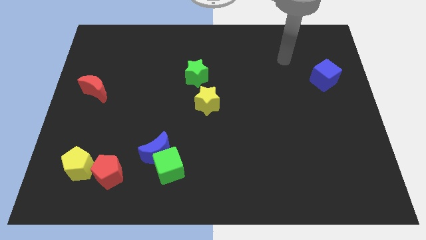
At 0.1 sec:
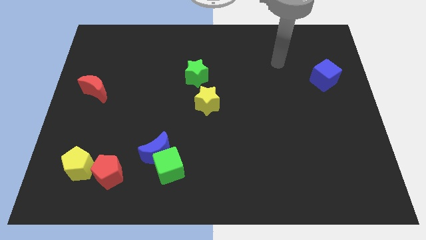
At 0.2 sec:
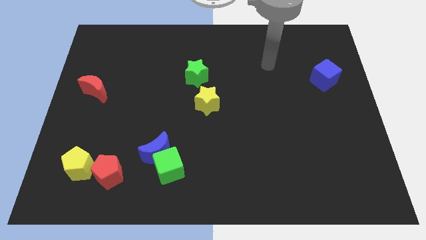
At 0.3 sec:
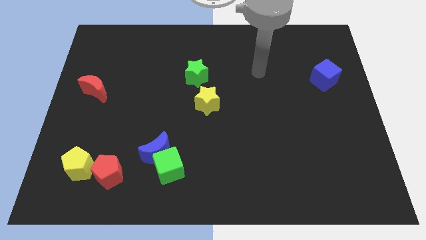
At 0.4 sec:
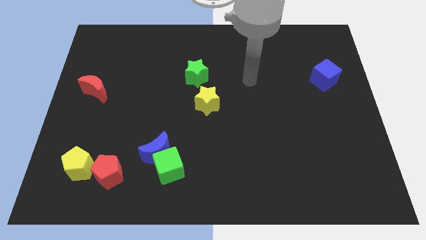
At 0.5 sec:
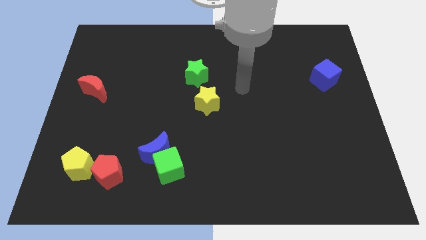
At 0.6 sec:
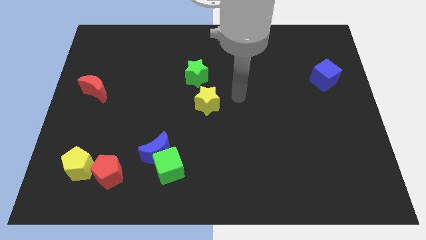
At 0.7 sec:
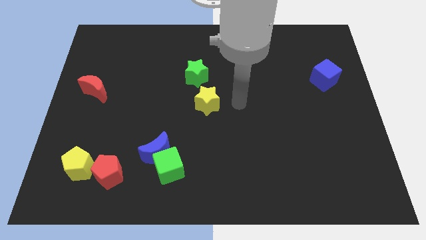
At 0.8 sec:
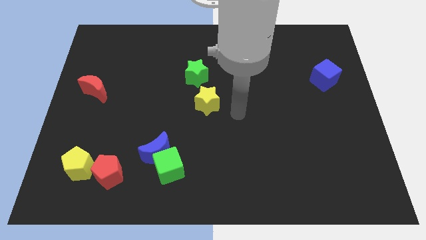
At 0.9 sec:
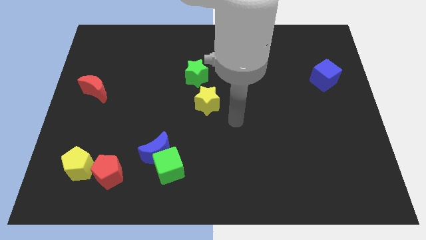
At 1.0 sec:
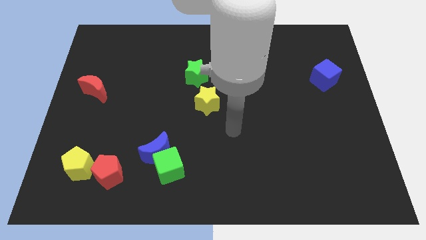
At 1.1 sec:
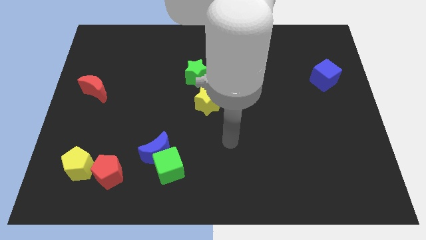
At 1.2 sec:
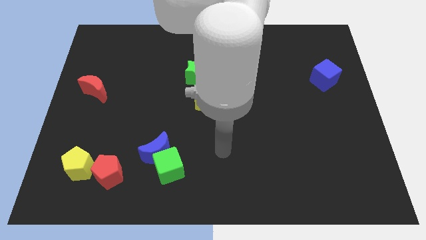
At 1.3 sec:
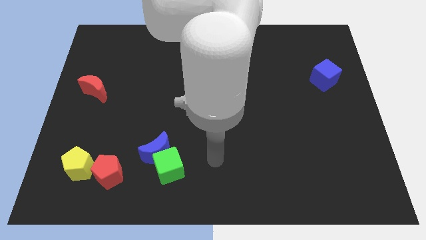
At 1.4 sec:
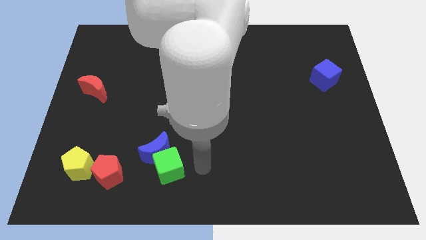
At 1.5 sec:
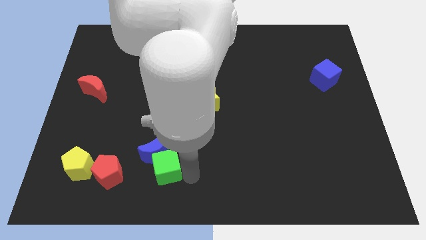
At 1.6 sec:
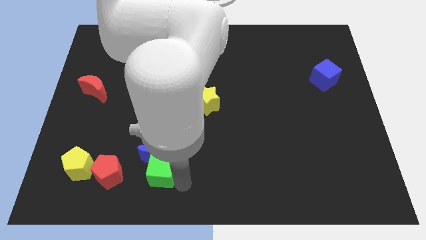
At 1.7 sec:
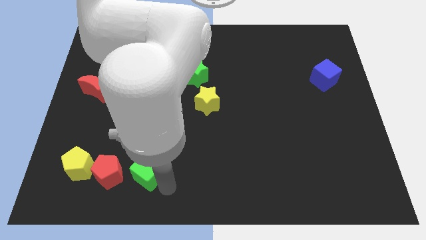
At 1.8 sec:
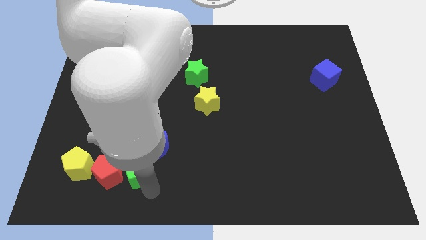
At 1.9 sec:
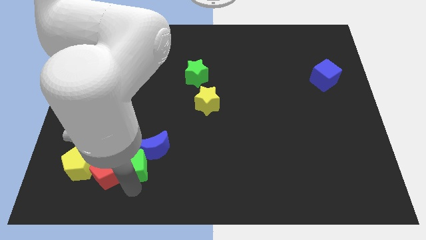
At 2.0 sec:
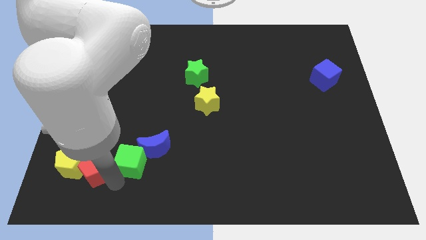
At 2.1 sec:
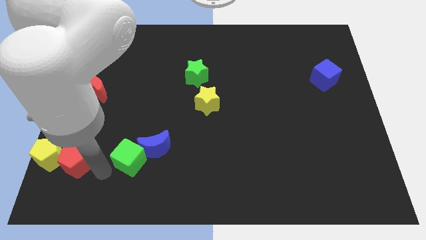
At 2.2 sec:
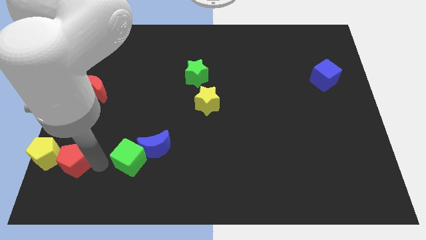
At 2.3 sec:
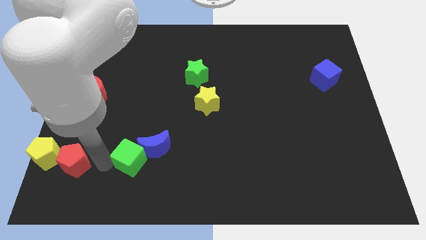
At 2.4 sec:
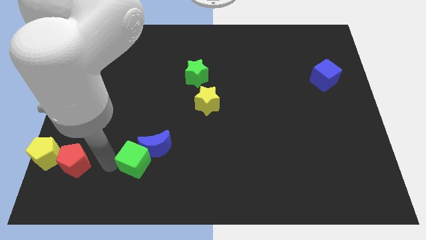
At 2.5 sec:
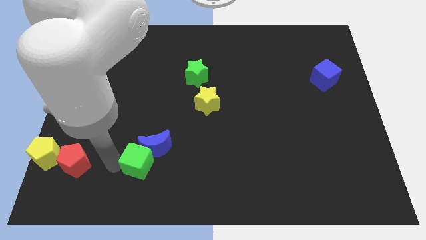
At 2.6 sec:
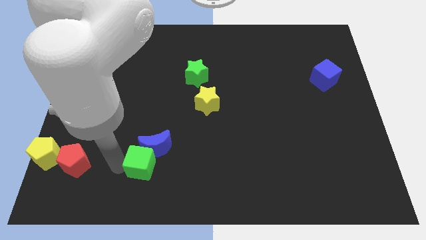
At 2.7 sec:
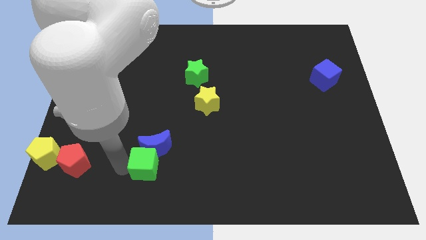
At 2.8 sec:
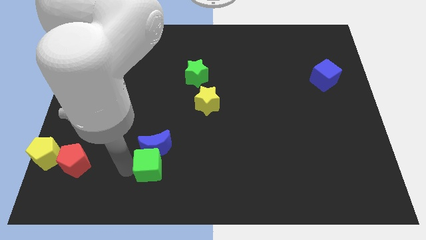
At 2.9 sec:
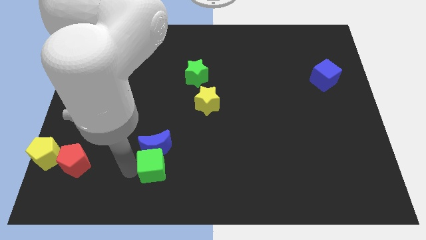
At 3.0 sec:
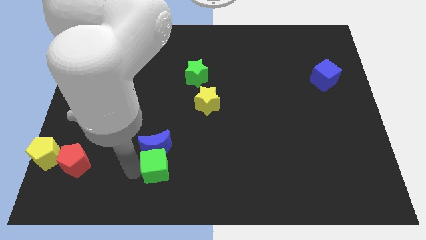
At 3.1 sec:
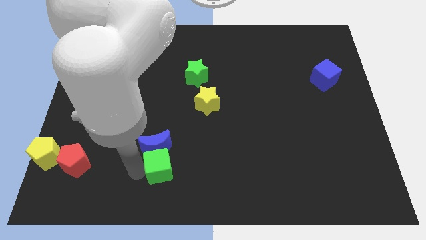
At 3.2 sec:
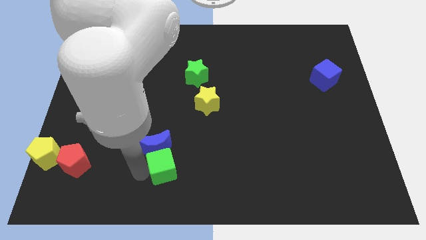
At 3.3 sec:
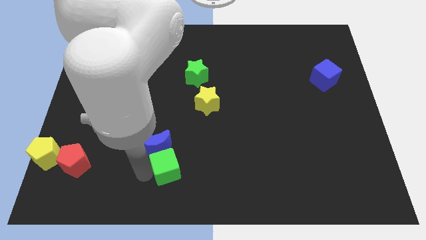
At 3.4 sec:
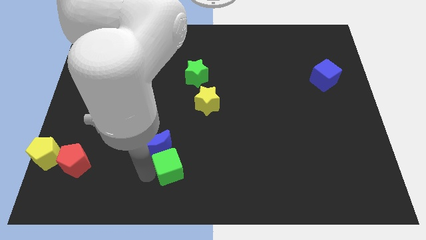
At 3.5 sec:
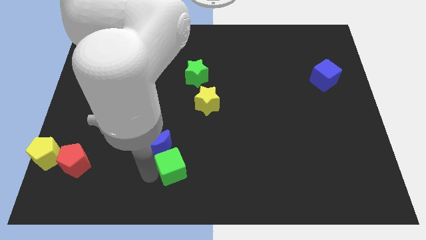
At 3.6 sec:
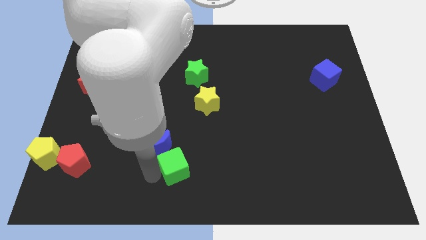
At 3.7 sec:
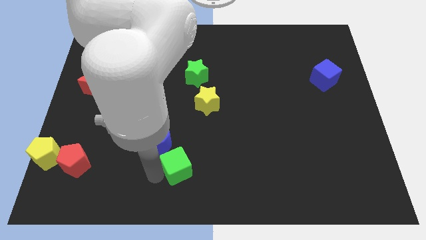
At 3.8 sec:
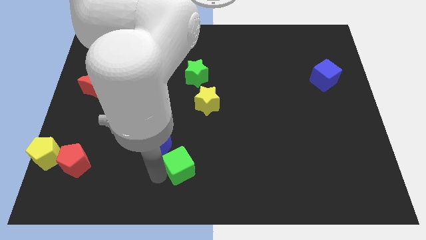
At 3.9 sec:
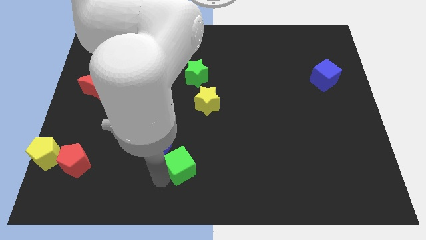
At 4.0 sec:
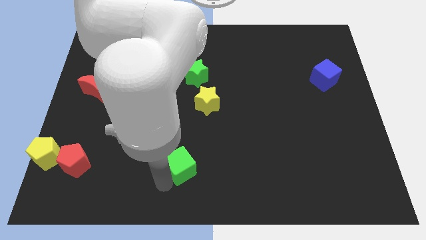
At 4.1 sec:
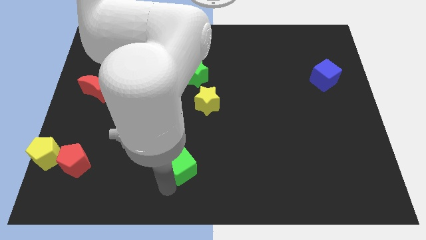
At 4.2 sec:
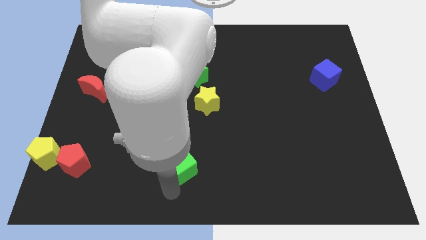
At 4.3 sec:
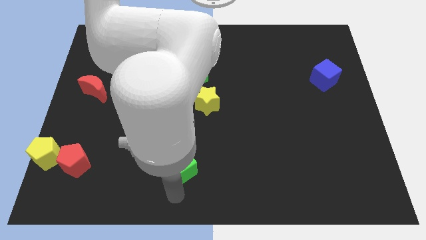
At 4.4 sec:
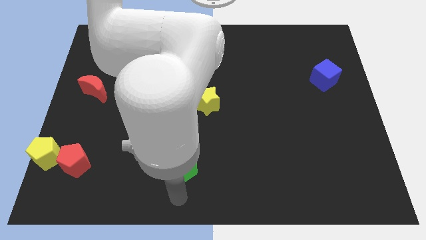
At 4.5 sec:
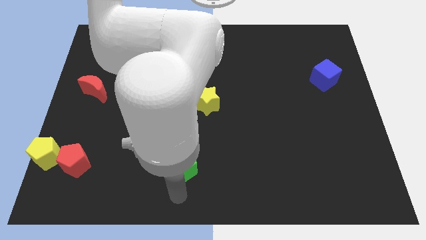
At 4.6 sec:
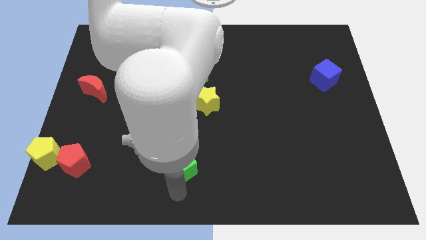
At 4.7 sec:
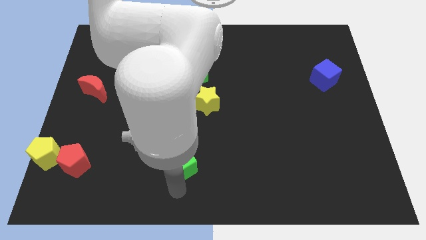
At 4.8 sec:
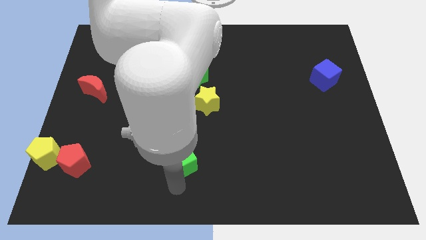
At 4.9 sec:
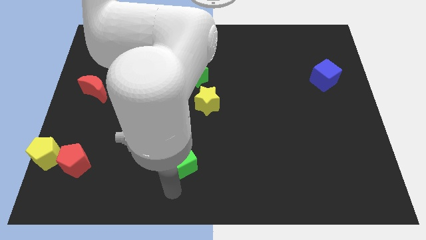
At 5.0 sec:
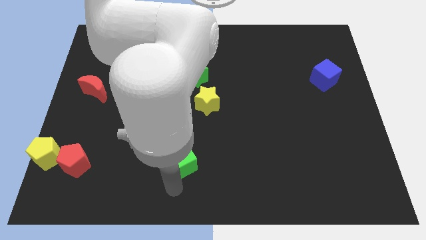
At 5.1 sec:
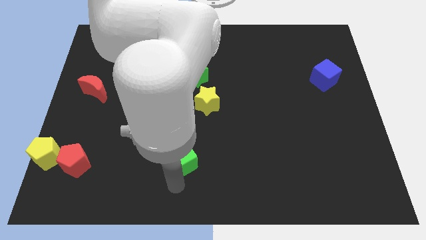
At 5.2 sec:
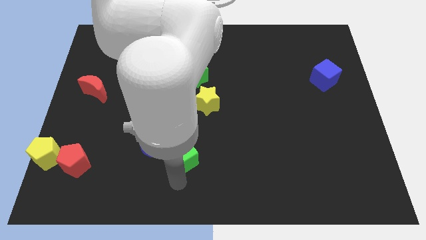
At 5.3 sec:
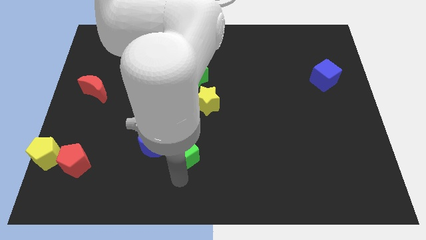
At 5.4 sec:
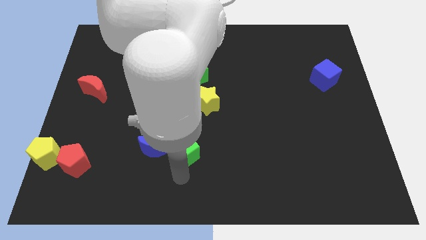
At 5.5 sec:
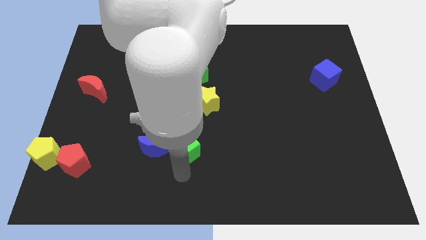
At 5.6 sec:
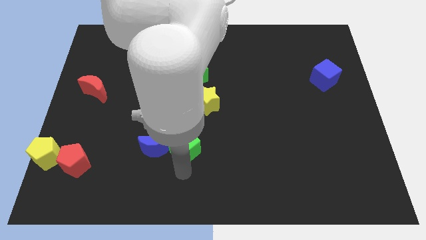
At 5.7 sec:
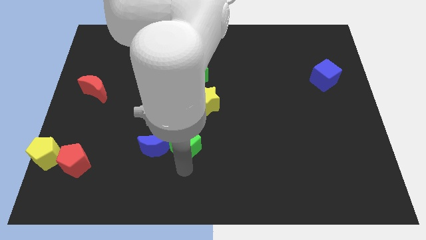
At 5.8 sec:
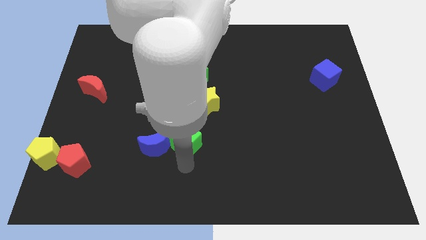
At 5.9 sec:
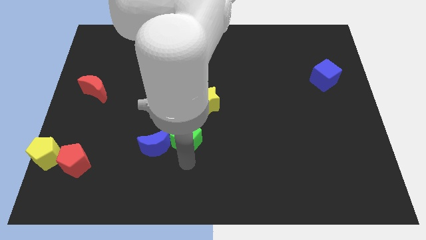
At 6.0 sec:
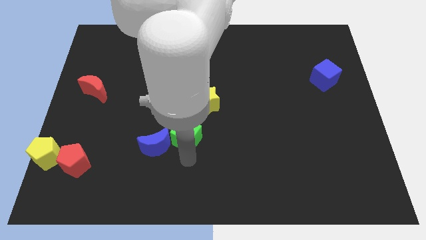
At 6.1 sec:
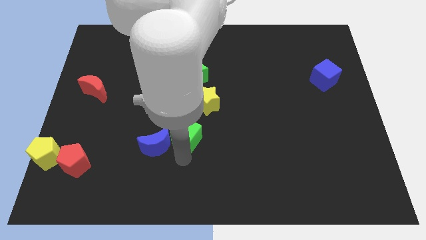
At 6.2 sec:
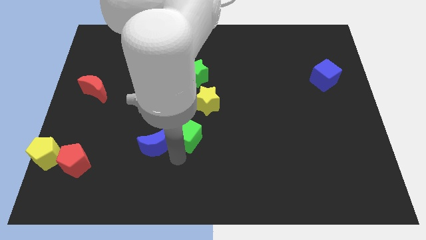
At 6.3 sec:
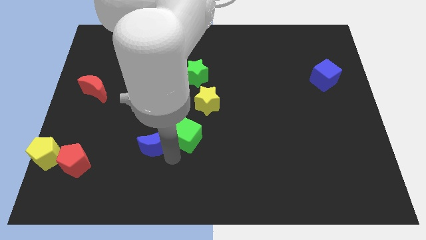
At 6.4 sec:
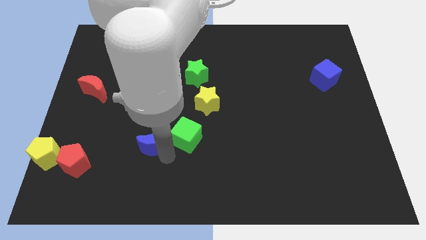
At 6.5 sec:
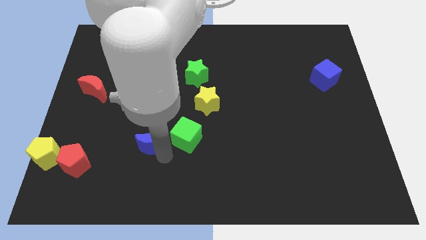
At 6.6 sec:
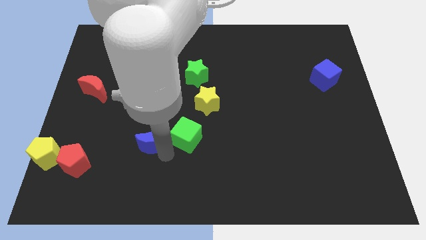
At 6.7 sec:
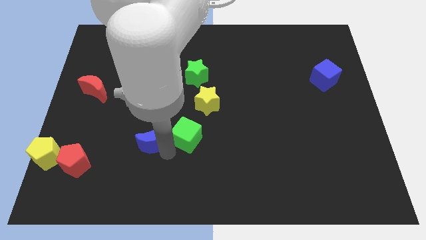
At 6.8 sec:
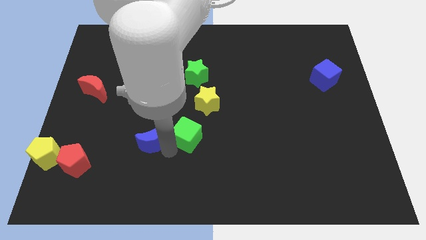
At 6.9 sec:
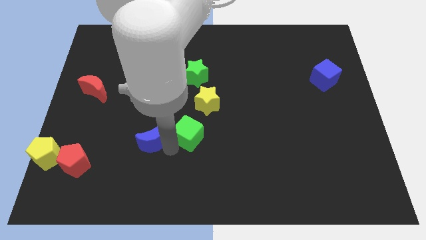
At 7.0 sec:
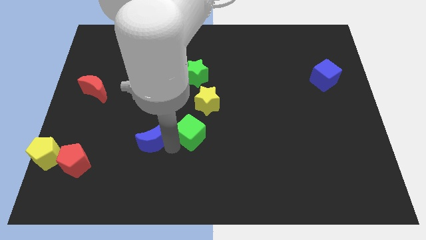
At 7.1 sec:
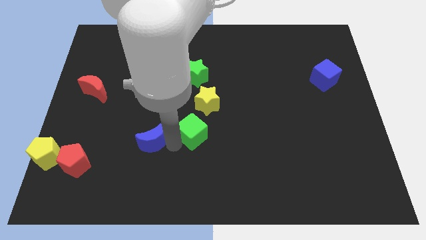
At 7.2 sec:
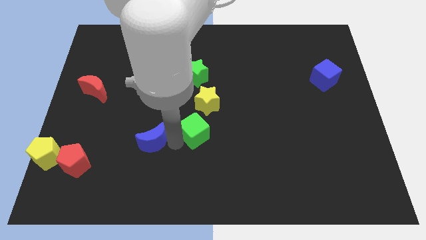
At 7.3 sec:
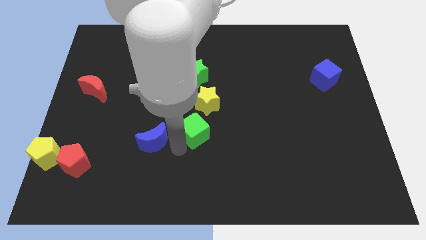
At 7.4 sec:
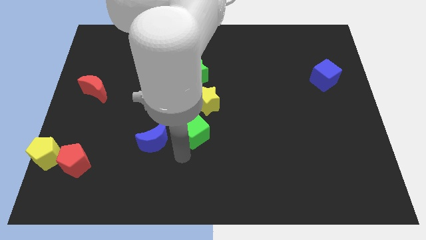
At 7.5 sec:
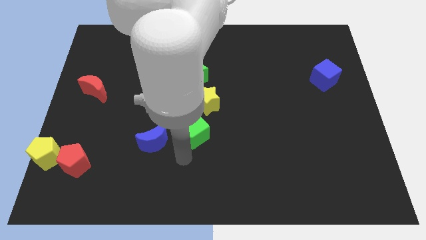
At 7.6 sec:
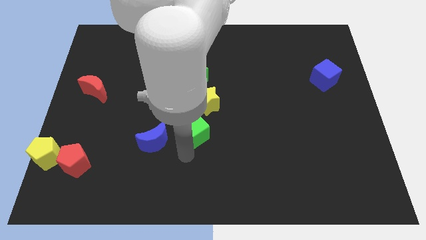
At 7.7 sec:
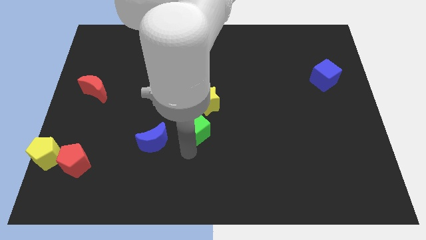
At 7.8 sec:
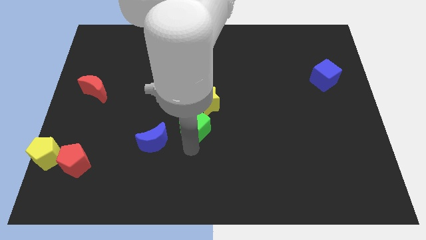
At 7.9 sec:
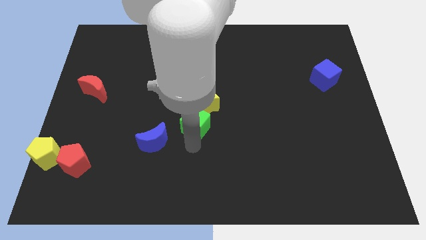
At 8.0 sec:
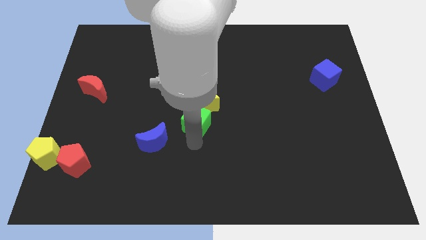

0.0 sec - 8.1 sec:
put the green cube to the yellow star
